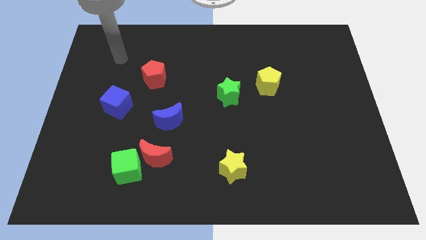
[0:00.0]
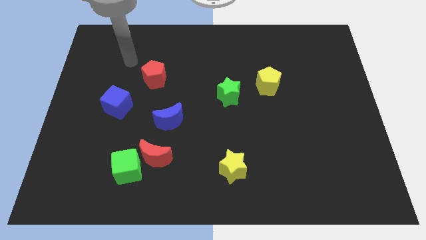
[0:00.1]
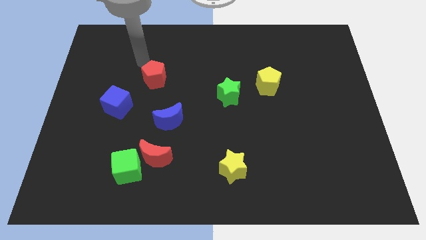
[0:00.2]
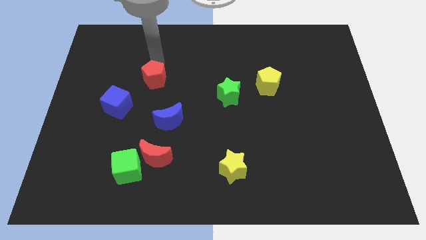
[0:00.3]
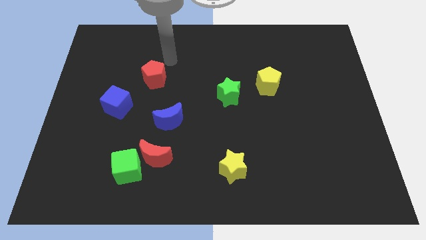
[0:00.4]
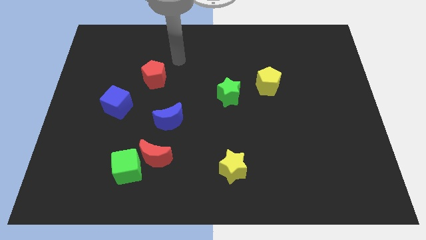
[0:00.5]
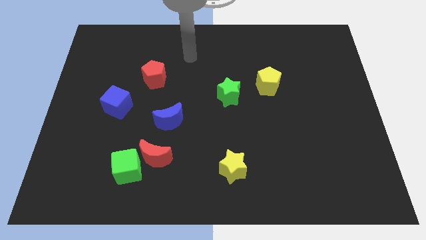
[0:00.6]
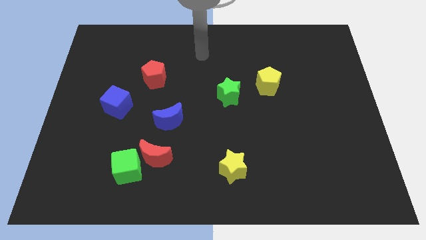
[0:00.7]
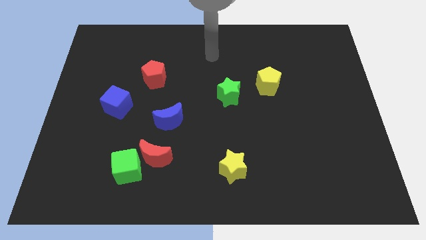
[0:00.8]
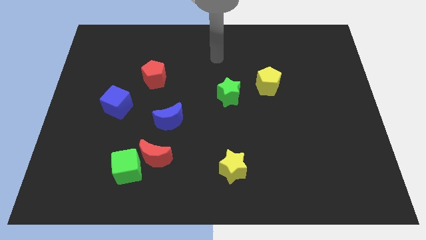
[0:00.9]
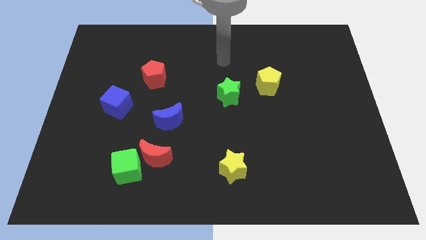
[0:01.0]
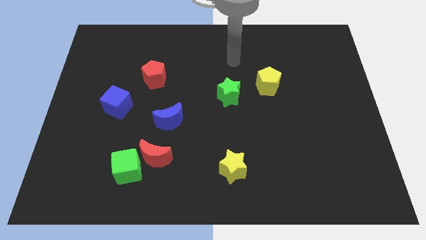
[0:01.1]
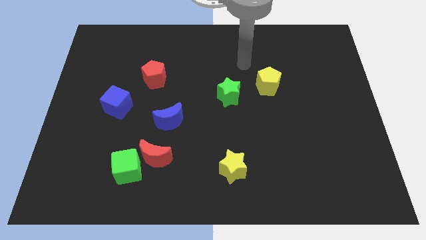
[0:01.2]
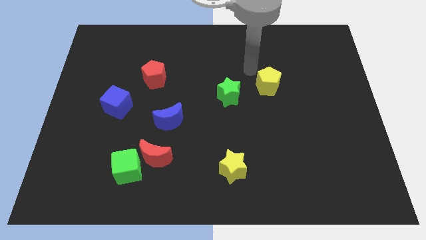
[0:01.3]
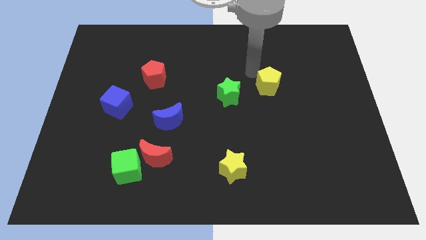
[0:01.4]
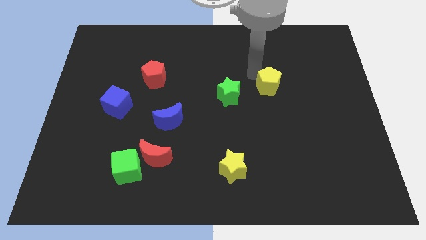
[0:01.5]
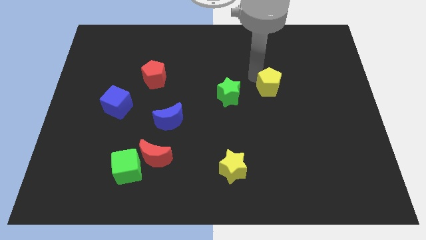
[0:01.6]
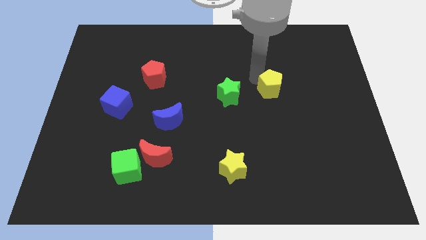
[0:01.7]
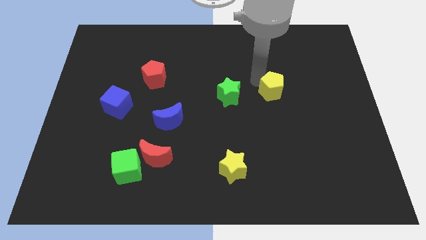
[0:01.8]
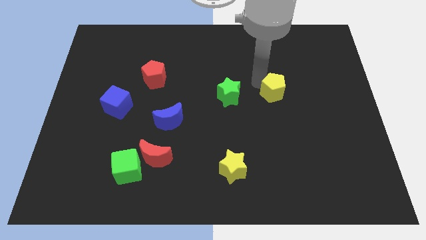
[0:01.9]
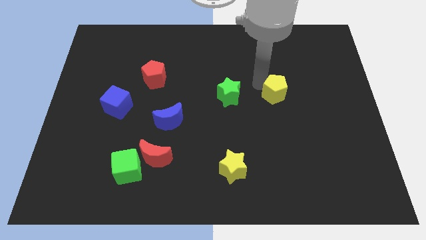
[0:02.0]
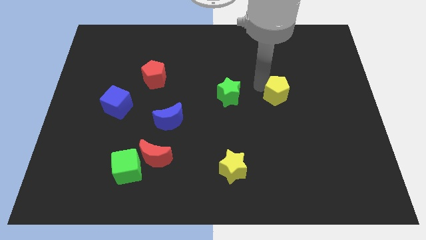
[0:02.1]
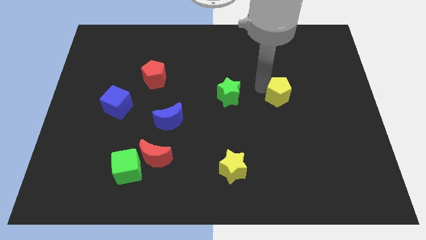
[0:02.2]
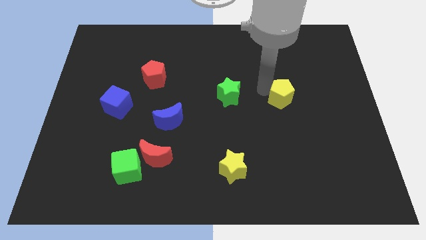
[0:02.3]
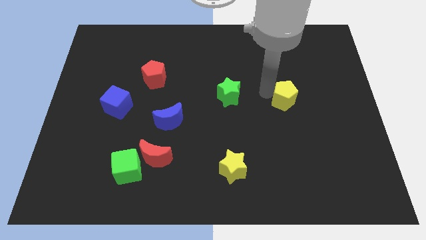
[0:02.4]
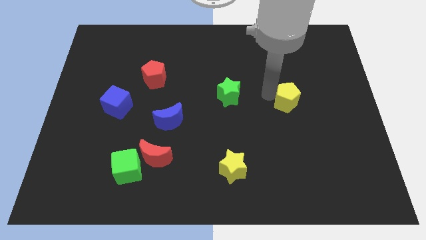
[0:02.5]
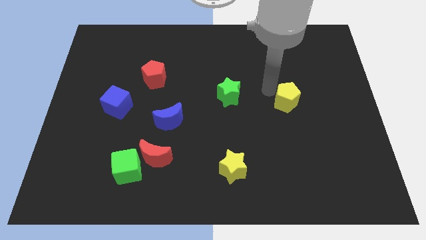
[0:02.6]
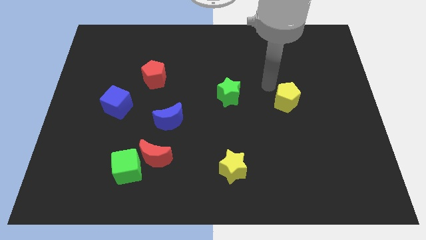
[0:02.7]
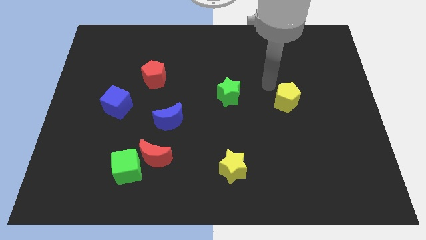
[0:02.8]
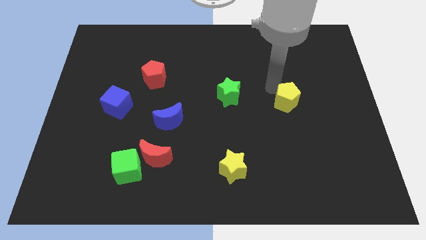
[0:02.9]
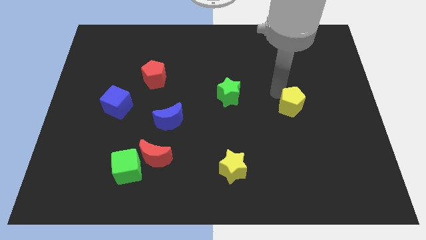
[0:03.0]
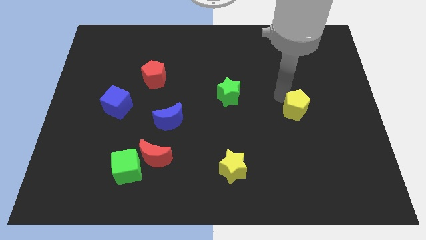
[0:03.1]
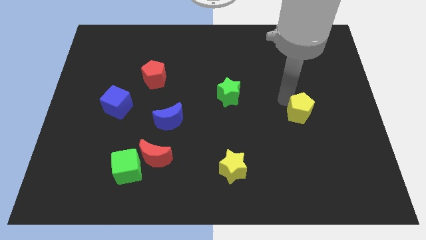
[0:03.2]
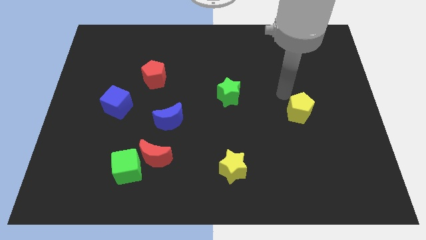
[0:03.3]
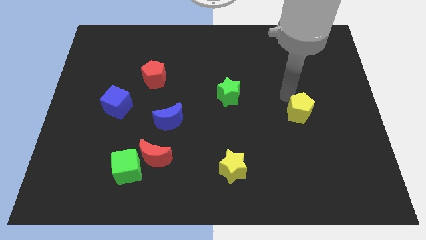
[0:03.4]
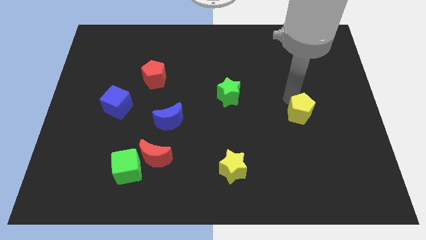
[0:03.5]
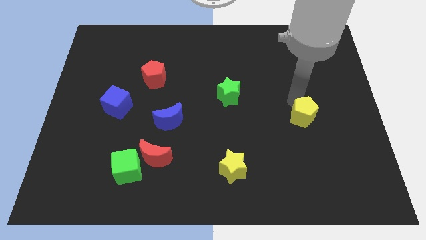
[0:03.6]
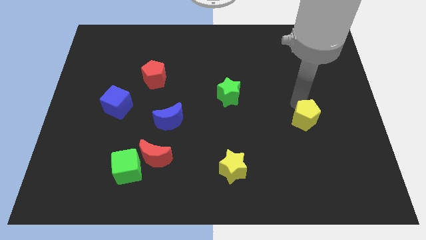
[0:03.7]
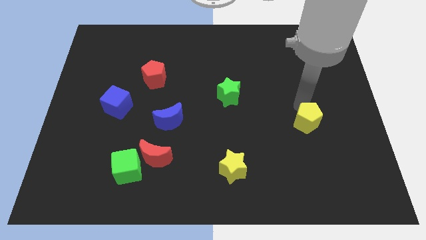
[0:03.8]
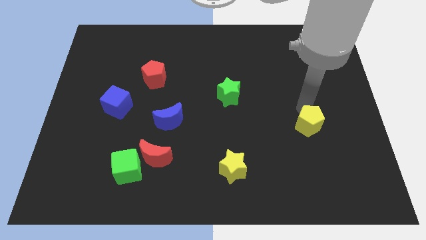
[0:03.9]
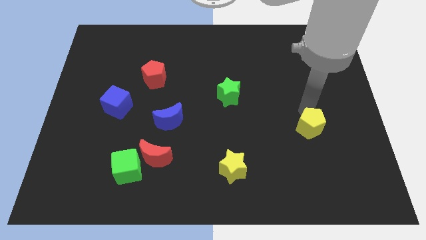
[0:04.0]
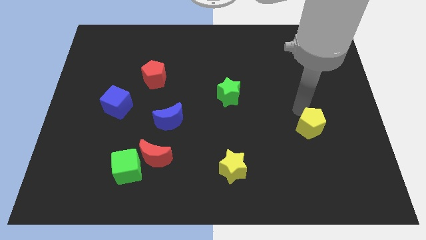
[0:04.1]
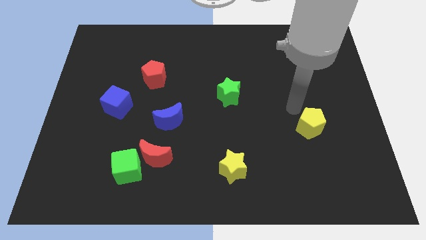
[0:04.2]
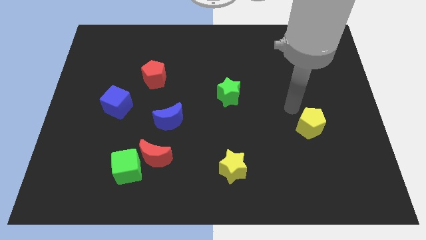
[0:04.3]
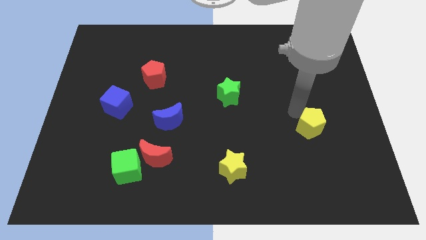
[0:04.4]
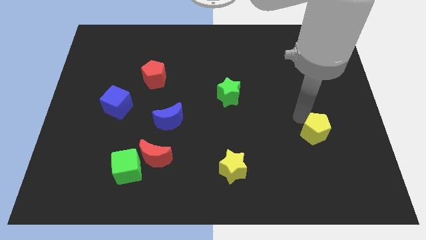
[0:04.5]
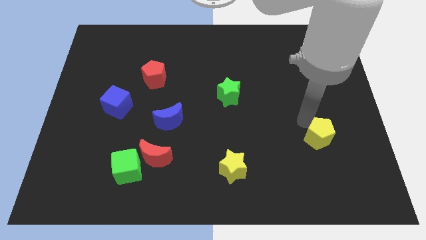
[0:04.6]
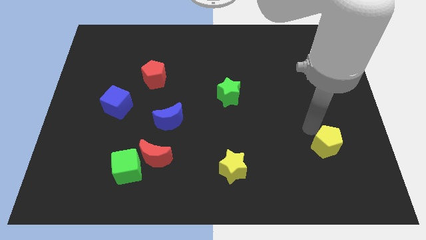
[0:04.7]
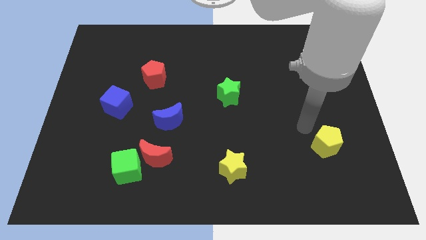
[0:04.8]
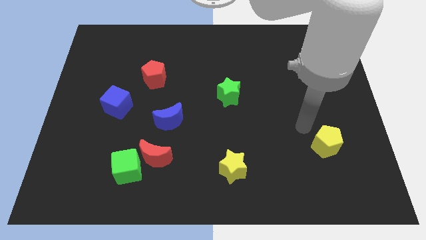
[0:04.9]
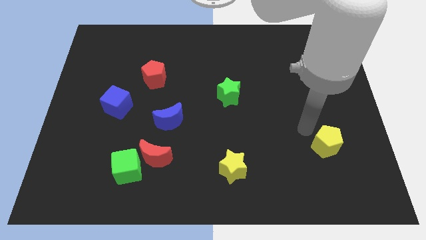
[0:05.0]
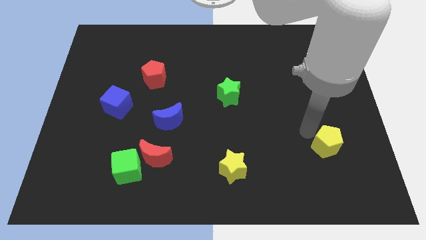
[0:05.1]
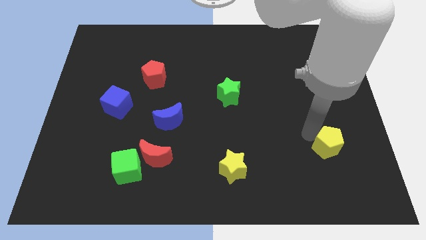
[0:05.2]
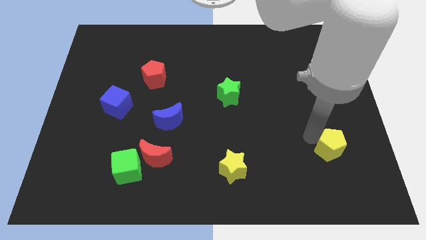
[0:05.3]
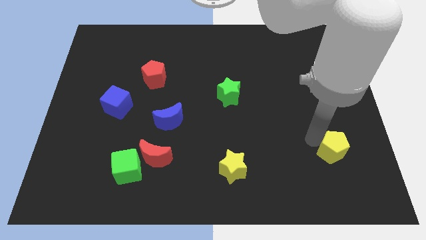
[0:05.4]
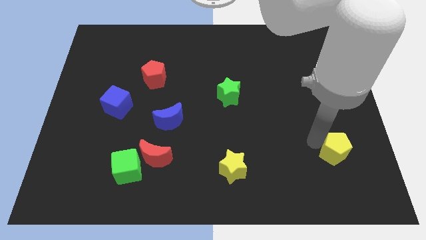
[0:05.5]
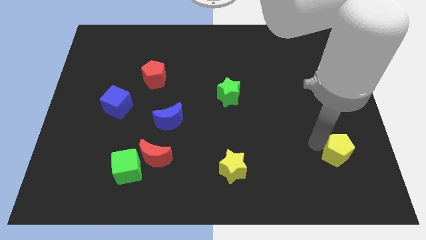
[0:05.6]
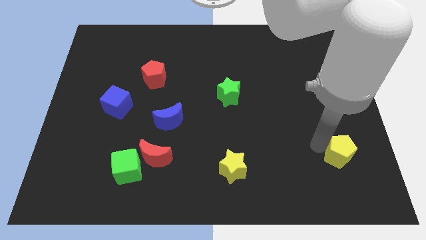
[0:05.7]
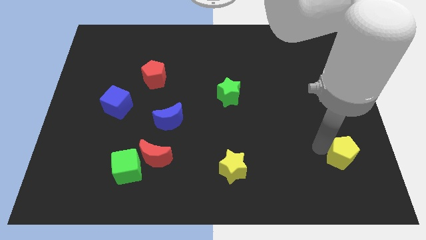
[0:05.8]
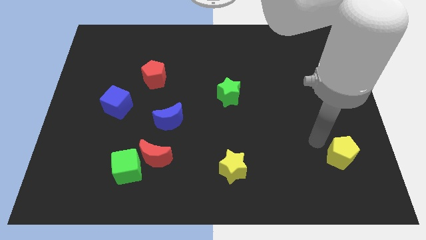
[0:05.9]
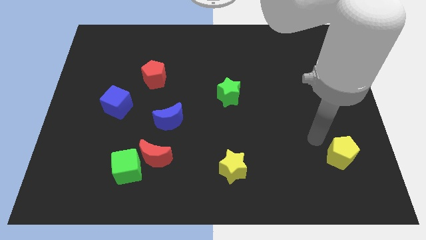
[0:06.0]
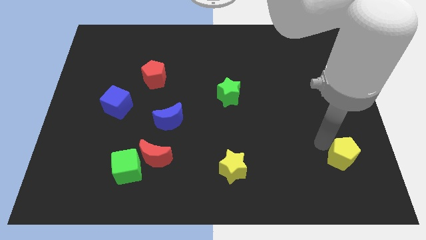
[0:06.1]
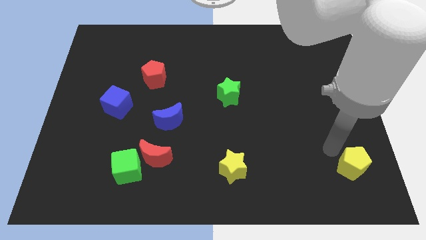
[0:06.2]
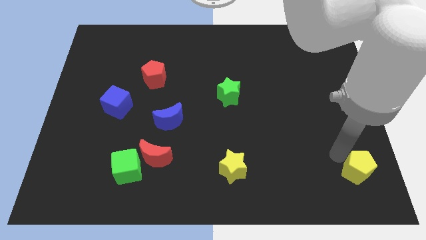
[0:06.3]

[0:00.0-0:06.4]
put the yellow pentagon to the bottom right
